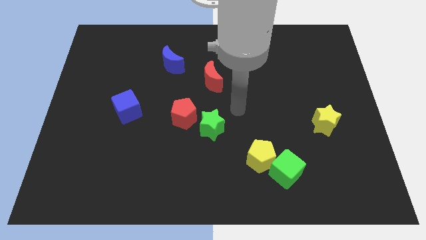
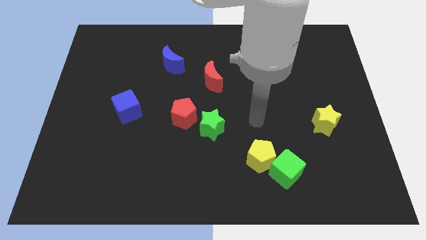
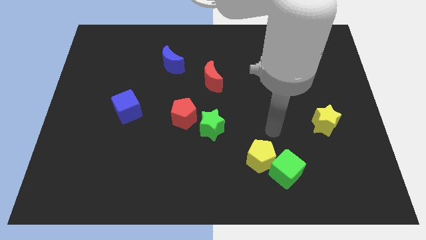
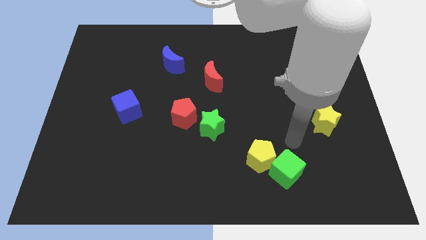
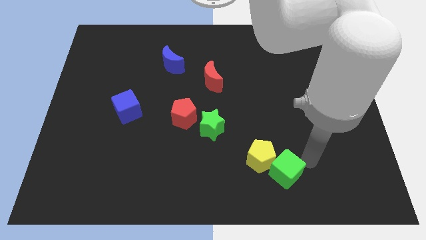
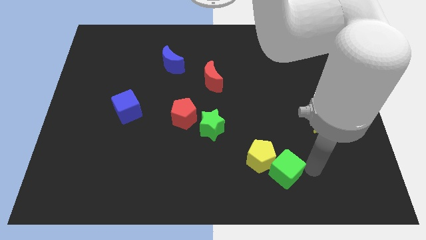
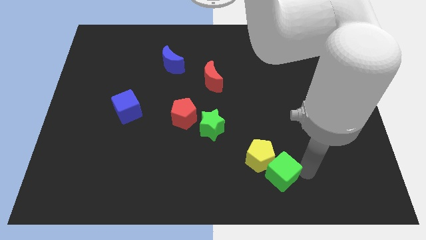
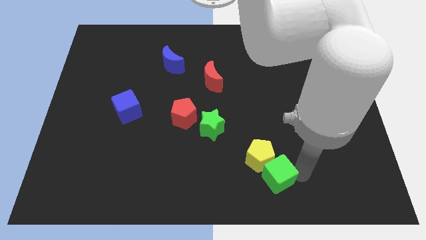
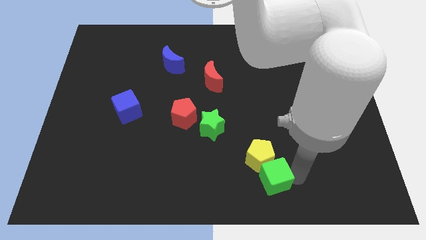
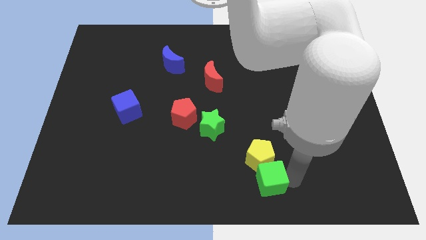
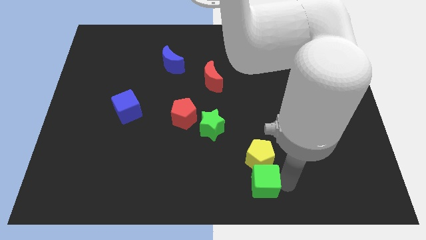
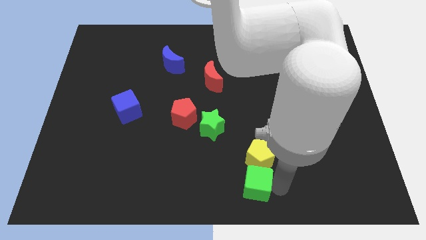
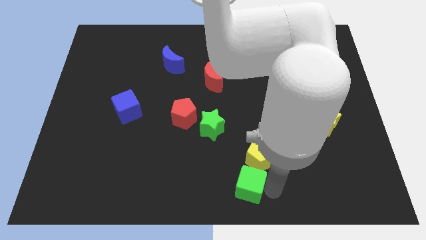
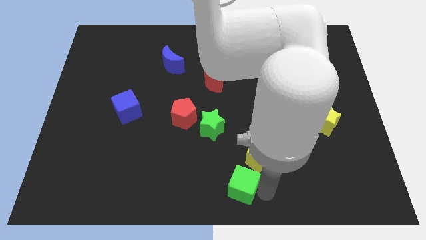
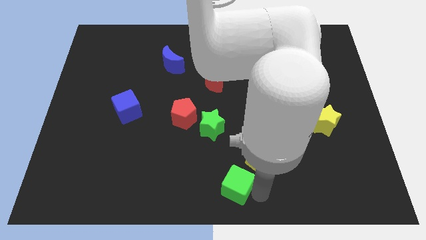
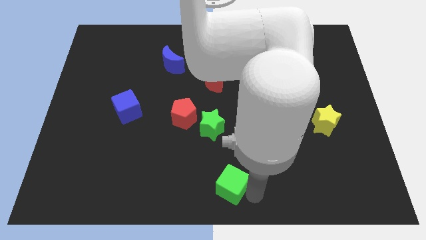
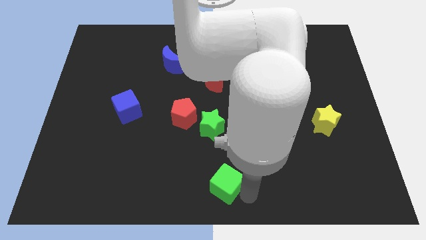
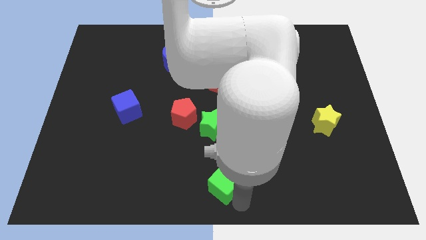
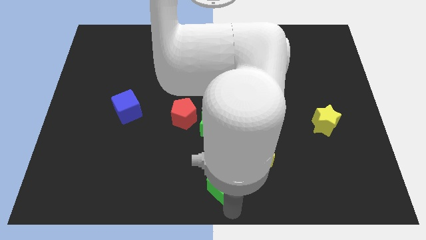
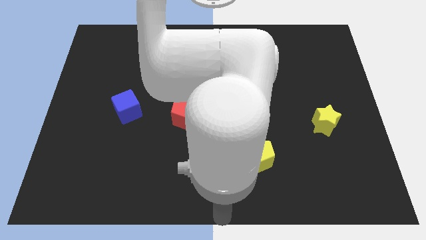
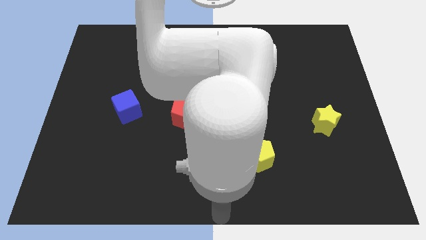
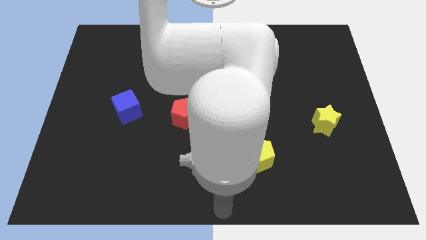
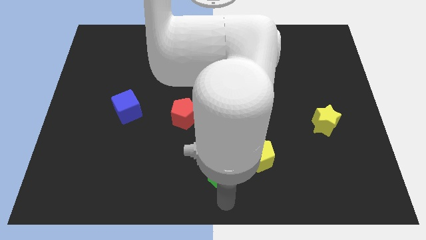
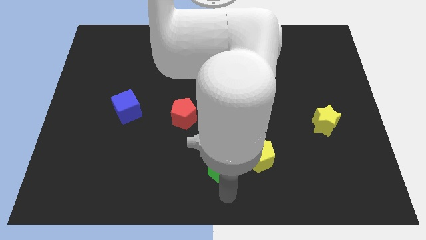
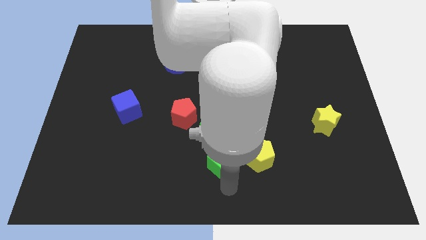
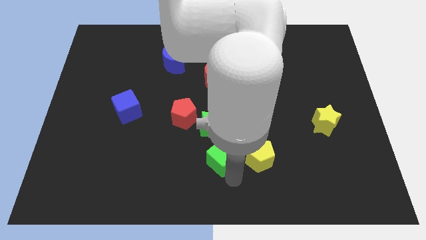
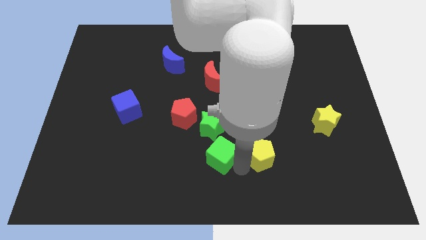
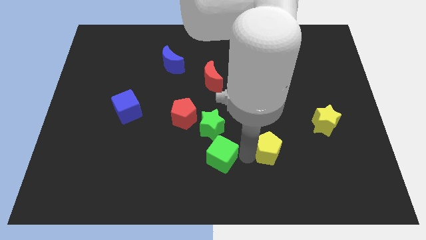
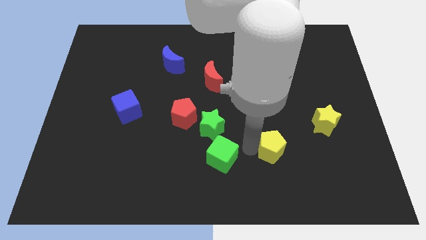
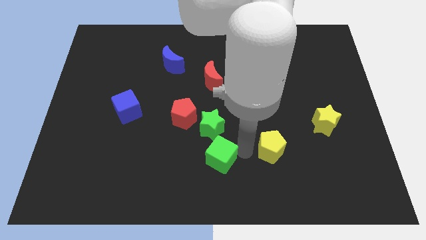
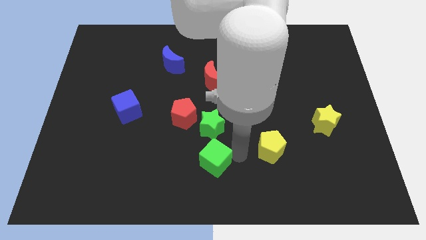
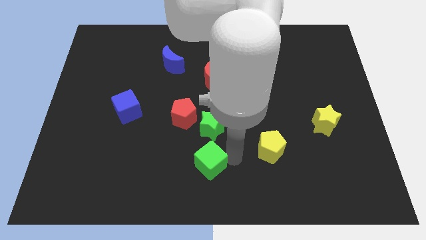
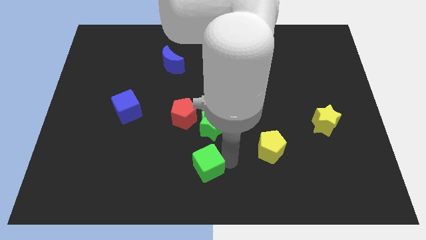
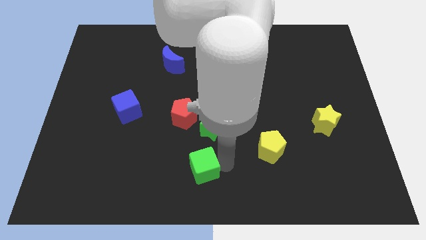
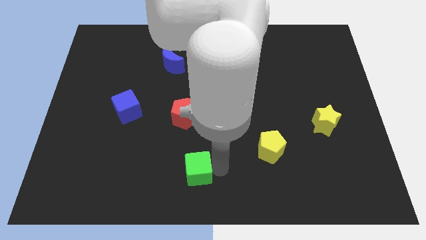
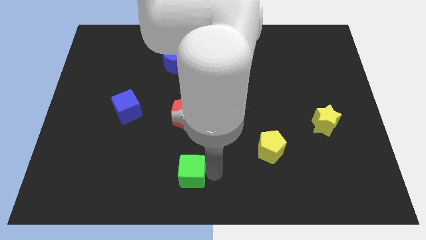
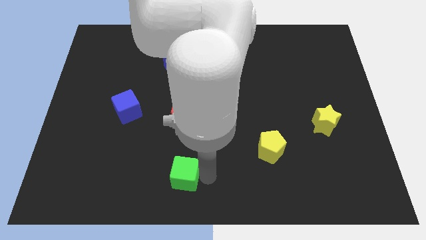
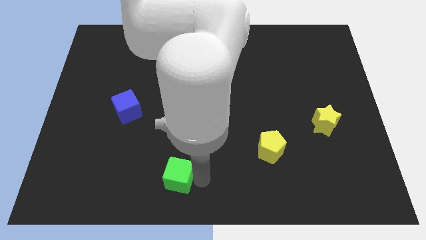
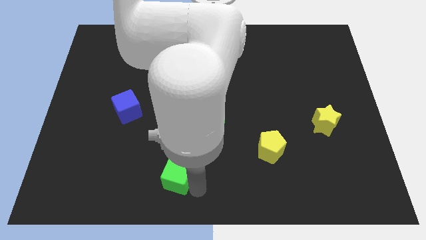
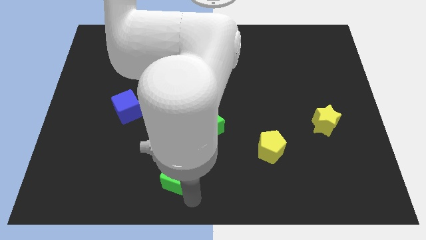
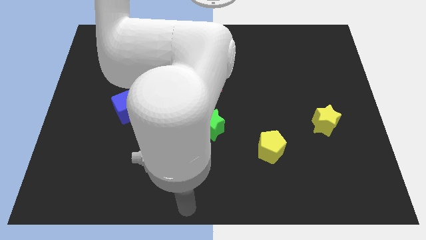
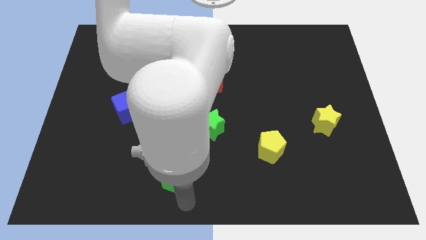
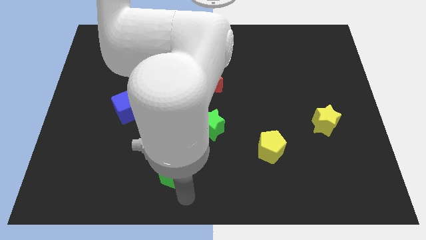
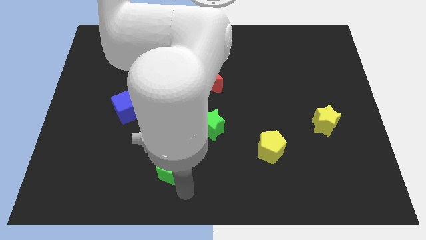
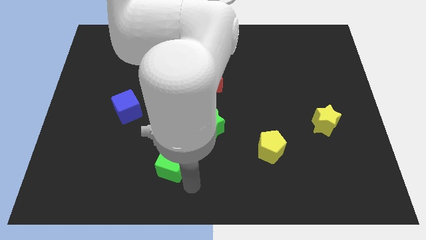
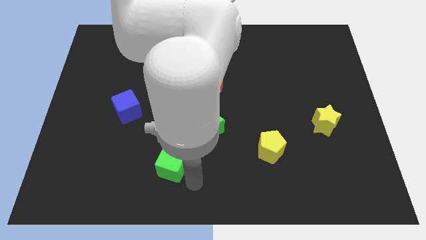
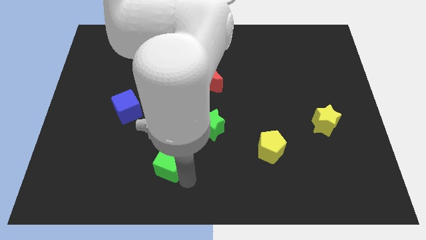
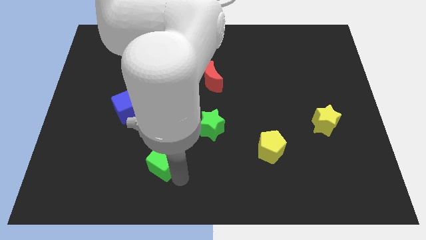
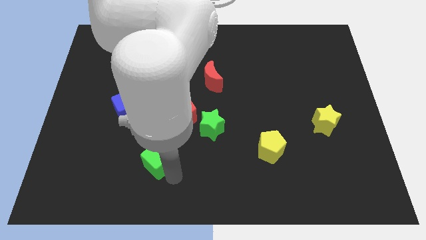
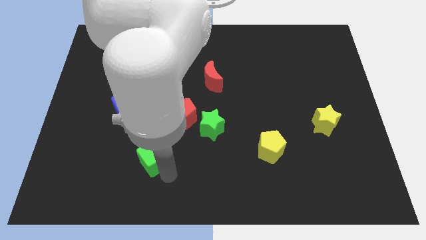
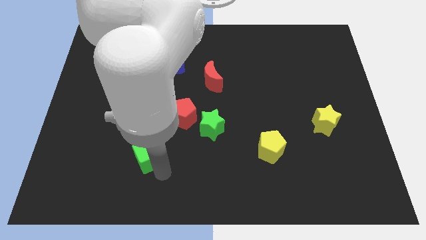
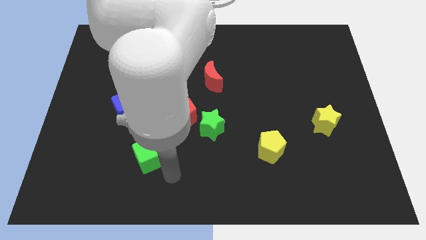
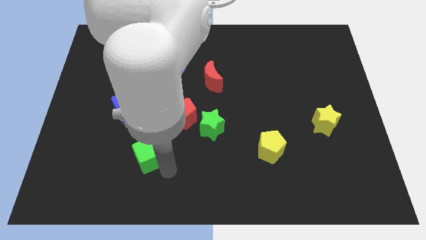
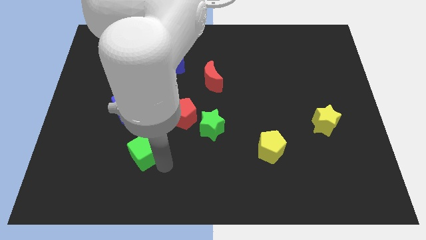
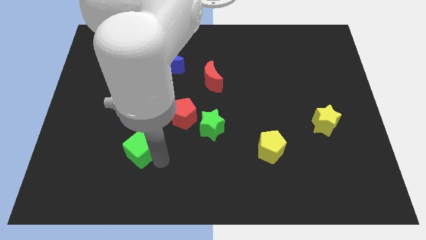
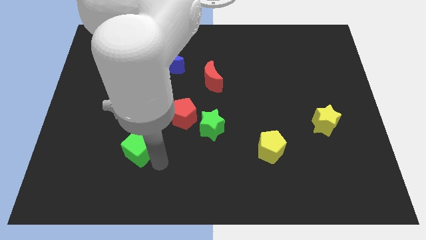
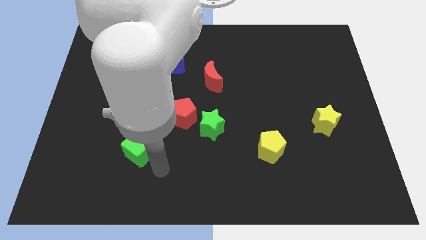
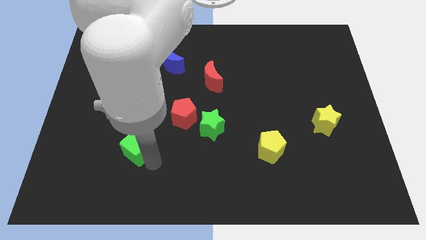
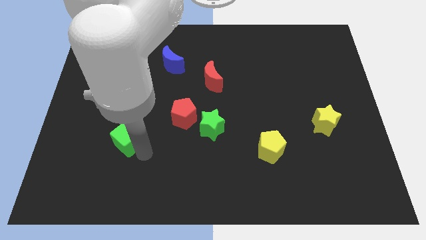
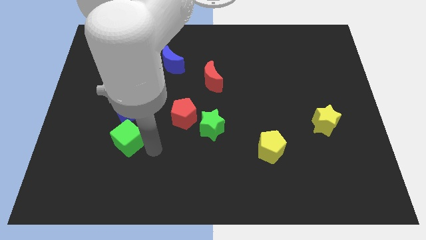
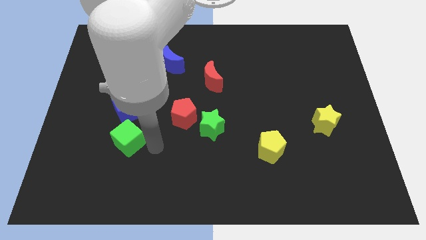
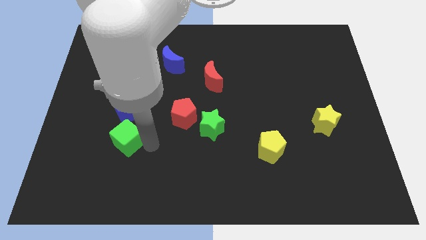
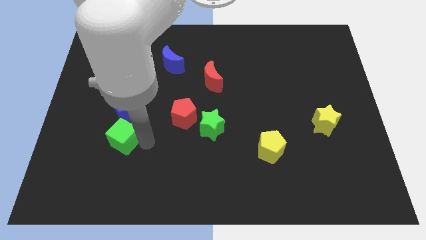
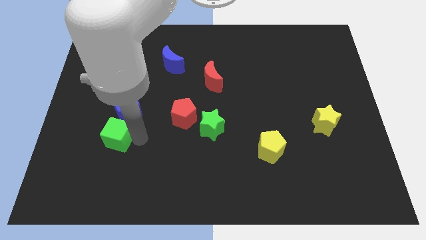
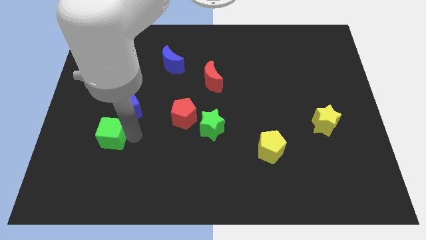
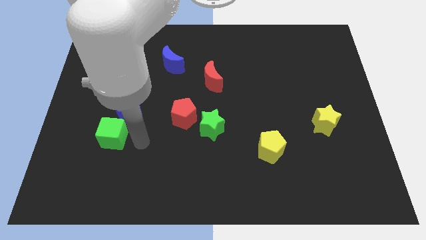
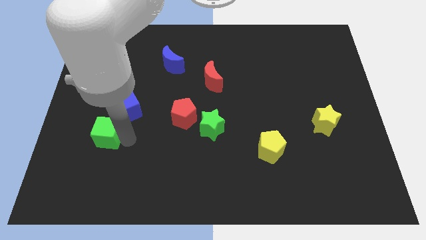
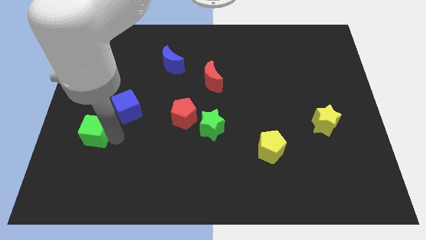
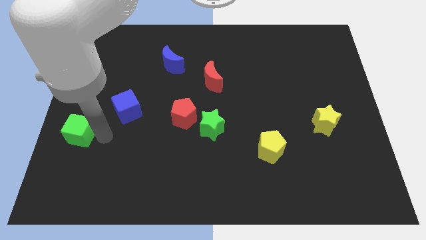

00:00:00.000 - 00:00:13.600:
move the green cube to the left side
